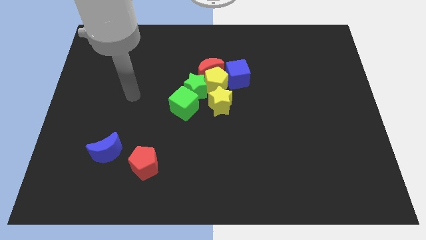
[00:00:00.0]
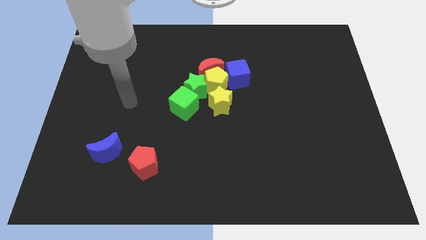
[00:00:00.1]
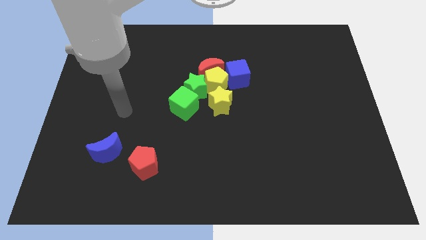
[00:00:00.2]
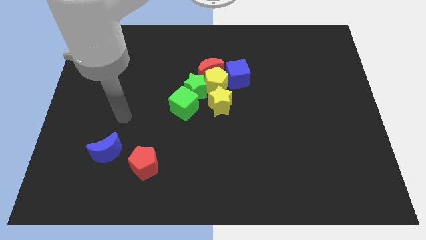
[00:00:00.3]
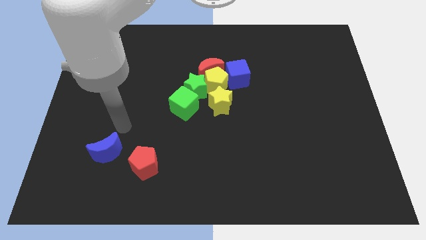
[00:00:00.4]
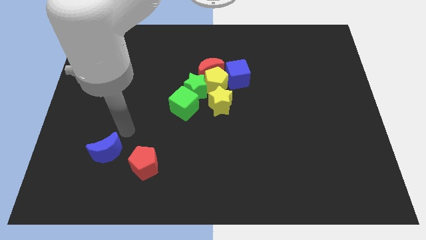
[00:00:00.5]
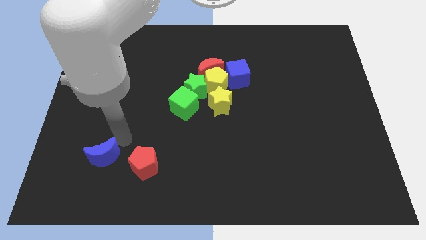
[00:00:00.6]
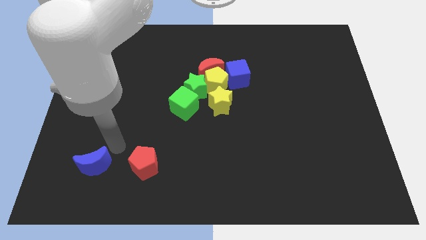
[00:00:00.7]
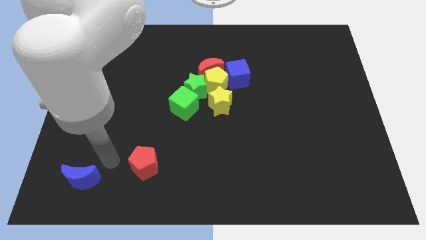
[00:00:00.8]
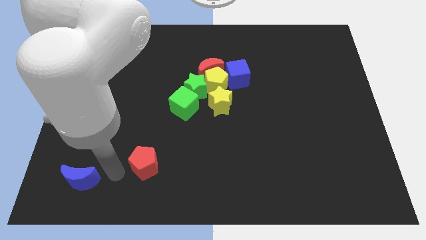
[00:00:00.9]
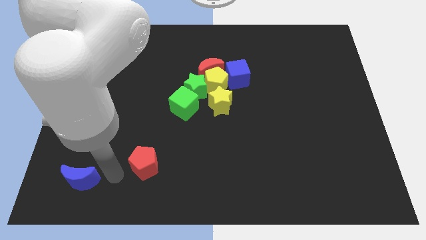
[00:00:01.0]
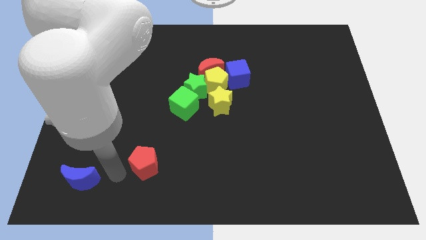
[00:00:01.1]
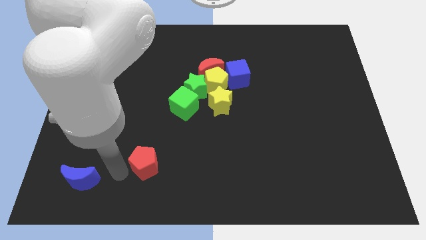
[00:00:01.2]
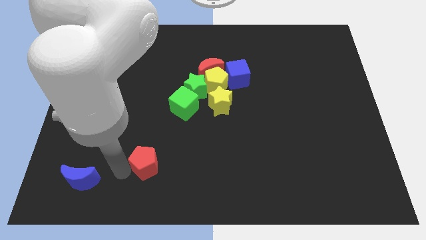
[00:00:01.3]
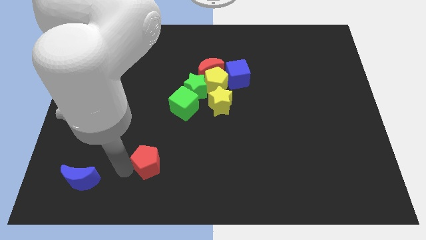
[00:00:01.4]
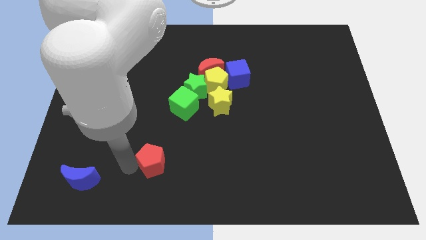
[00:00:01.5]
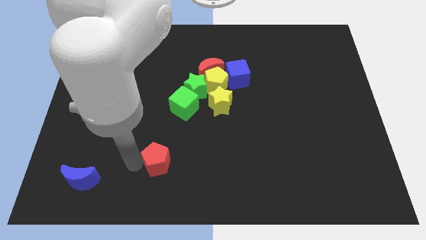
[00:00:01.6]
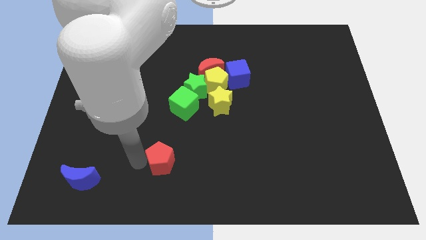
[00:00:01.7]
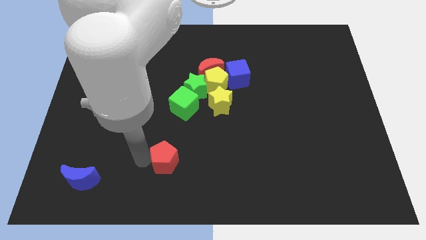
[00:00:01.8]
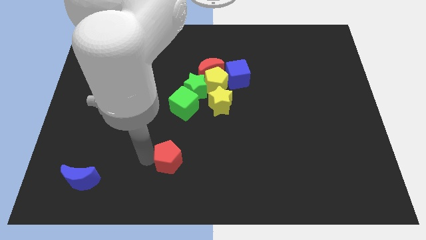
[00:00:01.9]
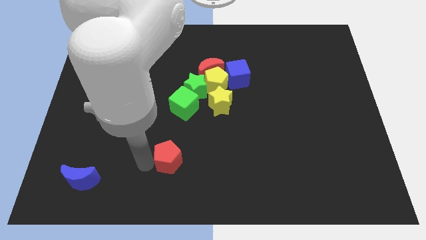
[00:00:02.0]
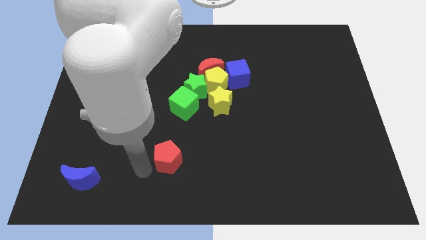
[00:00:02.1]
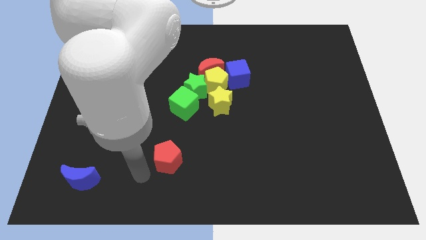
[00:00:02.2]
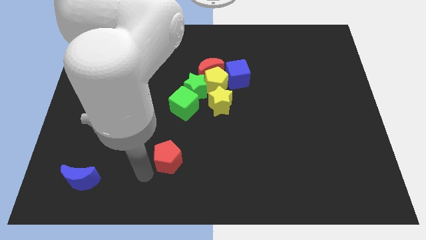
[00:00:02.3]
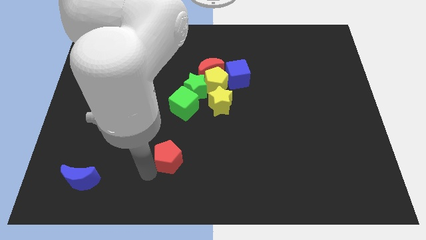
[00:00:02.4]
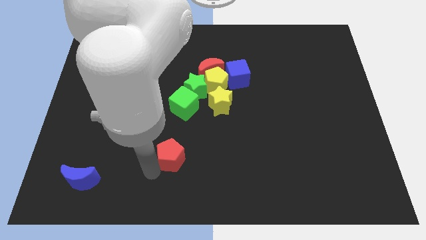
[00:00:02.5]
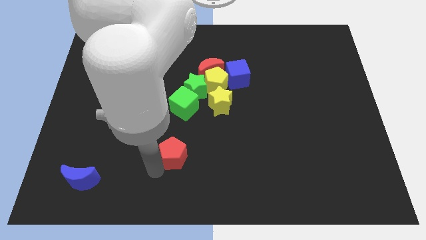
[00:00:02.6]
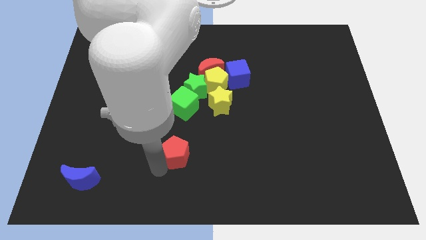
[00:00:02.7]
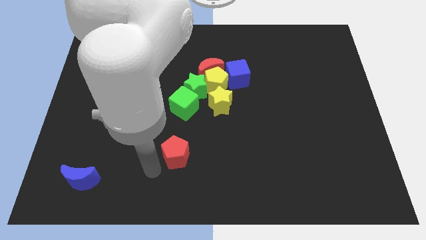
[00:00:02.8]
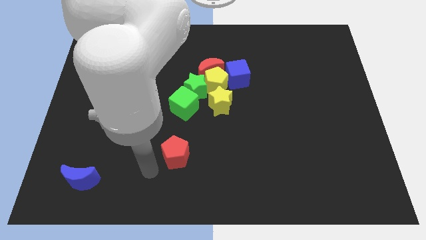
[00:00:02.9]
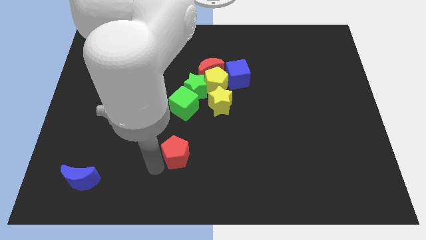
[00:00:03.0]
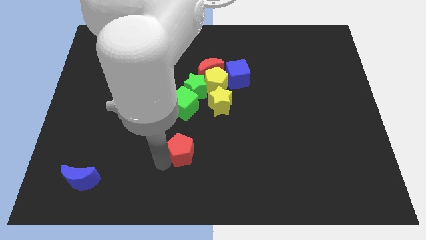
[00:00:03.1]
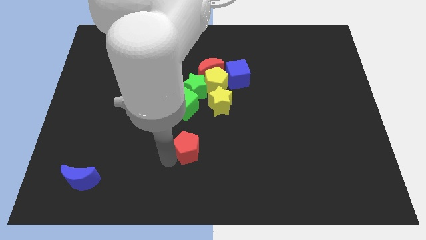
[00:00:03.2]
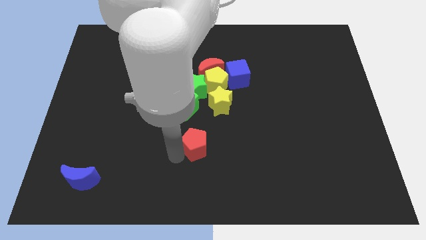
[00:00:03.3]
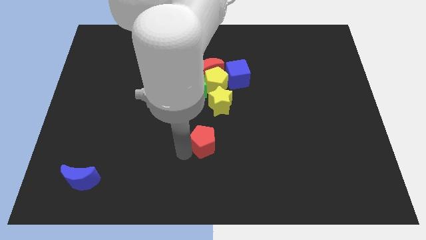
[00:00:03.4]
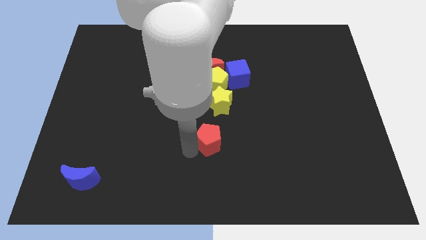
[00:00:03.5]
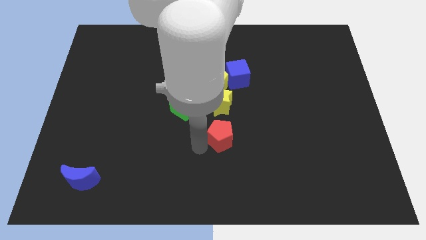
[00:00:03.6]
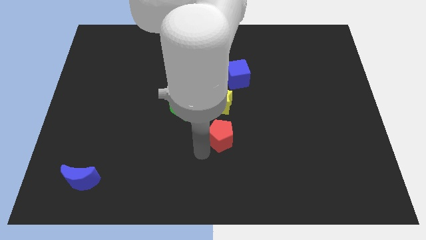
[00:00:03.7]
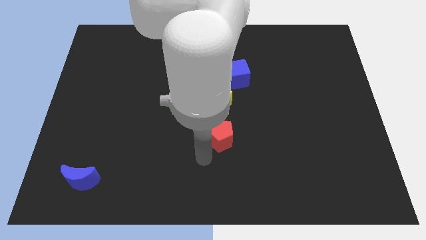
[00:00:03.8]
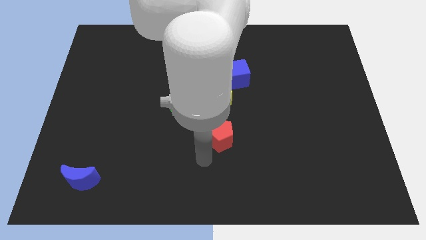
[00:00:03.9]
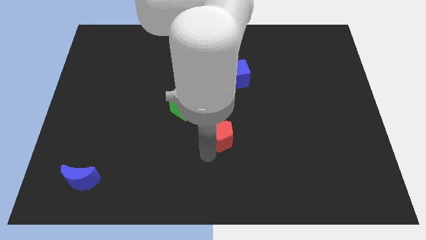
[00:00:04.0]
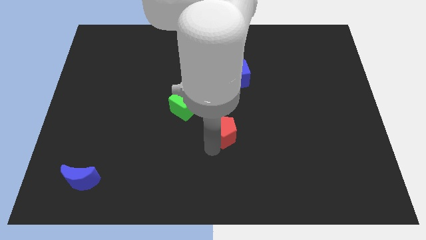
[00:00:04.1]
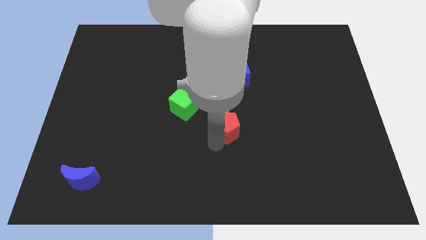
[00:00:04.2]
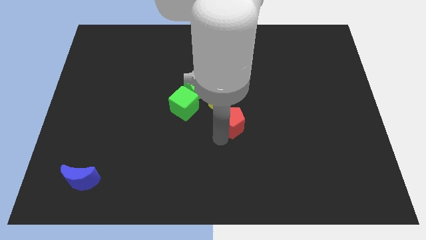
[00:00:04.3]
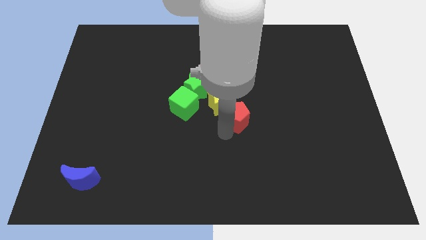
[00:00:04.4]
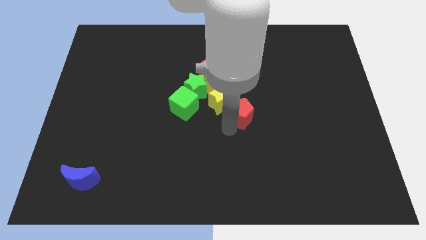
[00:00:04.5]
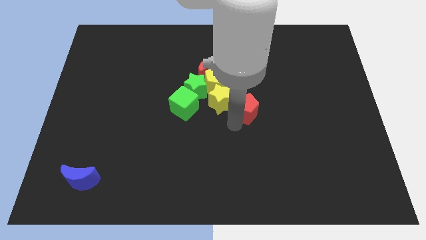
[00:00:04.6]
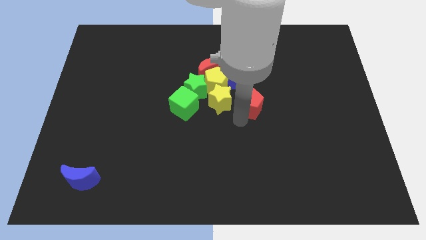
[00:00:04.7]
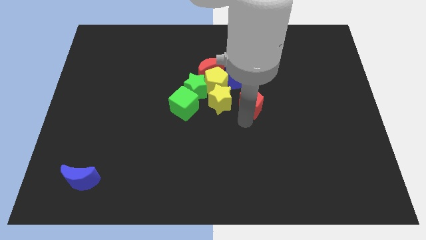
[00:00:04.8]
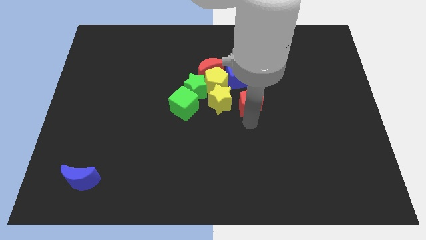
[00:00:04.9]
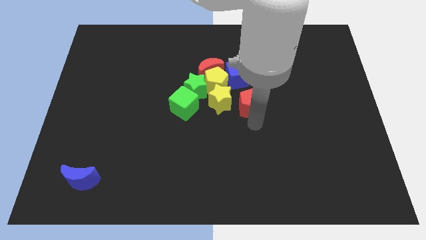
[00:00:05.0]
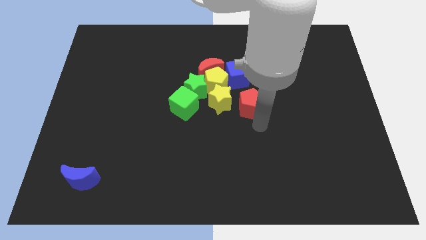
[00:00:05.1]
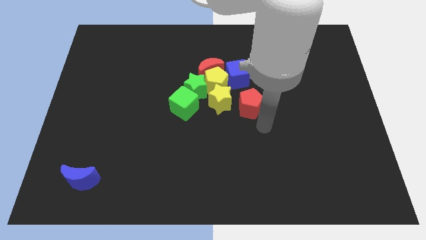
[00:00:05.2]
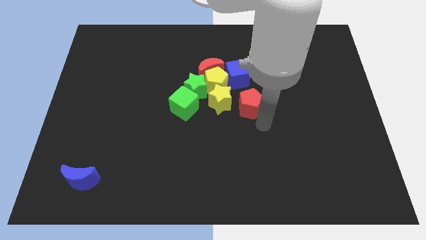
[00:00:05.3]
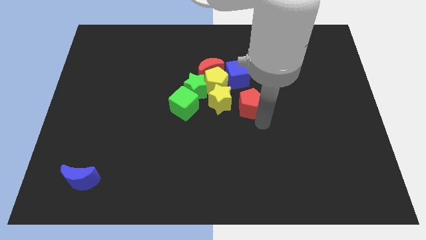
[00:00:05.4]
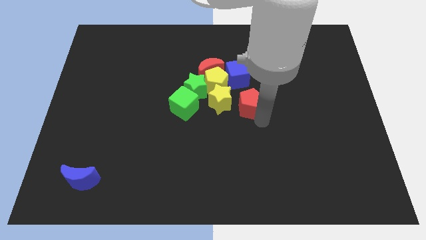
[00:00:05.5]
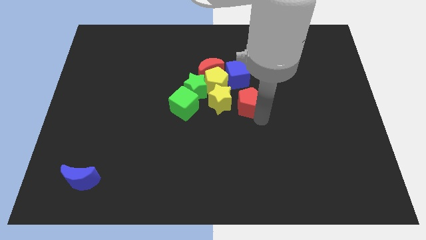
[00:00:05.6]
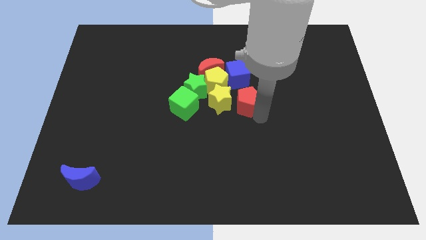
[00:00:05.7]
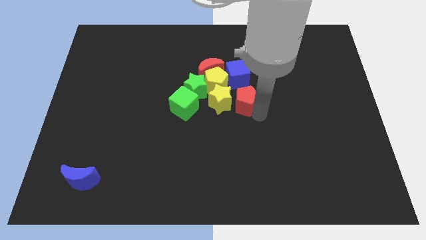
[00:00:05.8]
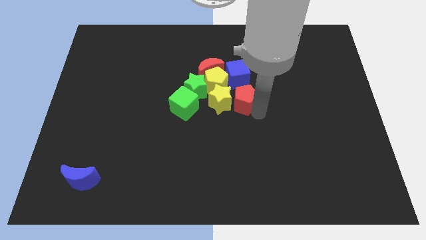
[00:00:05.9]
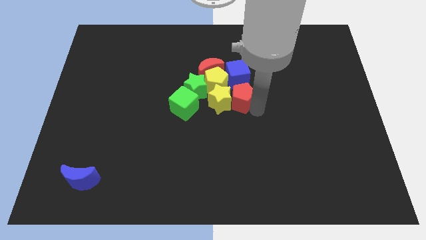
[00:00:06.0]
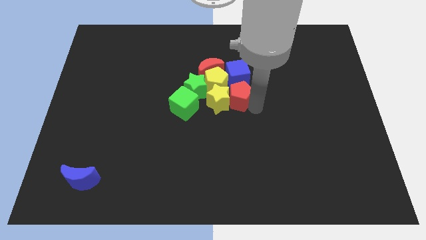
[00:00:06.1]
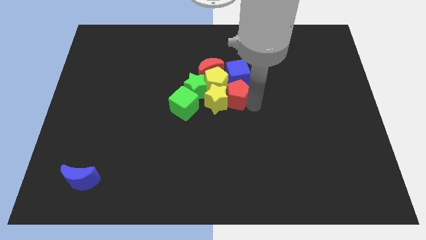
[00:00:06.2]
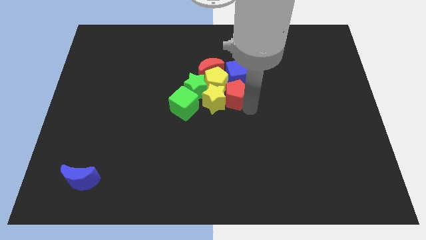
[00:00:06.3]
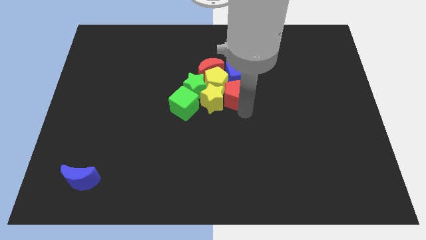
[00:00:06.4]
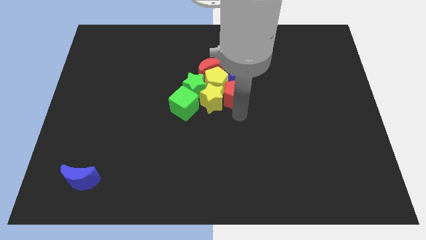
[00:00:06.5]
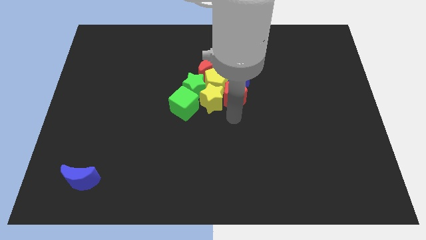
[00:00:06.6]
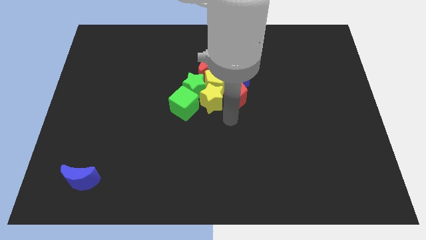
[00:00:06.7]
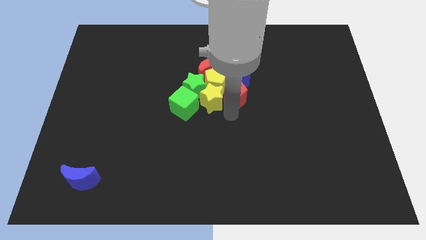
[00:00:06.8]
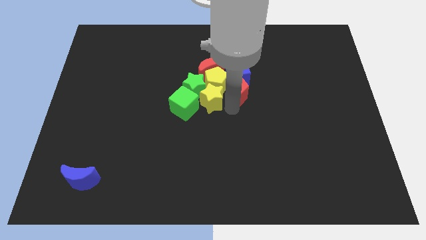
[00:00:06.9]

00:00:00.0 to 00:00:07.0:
push the red pentagon towards the blue cube

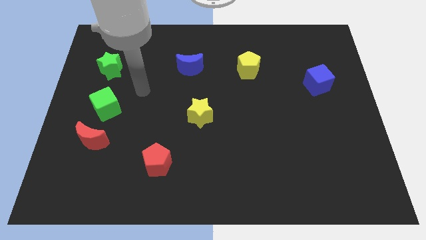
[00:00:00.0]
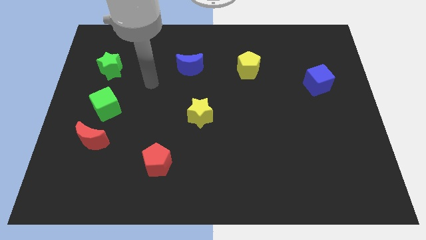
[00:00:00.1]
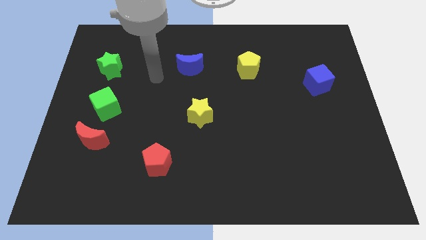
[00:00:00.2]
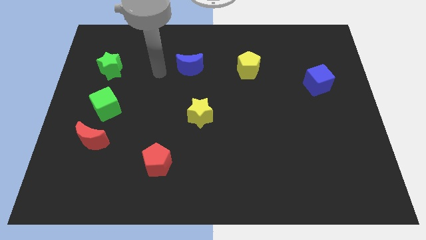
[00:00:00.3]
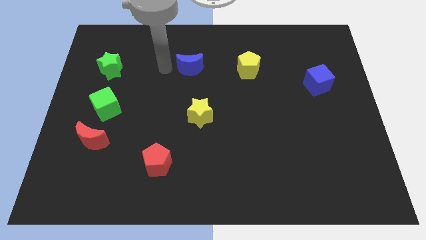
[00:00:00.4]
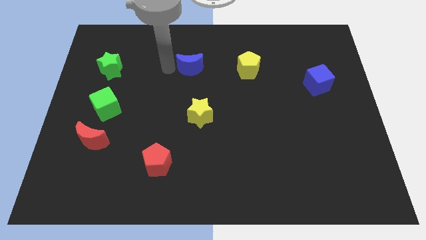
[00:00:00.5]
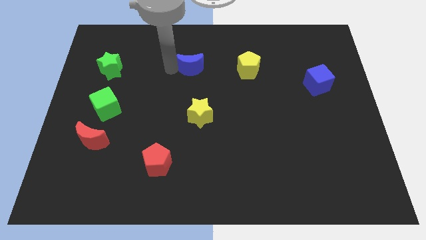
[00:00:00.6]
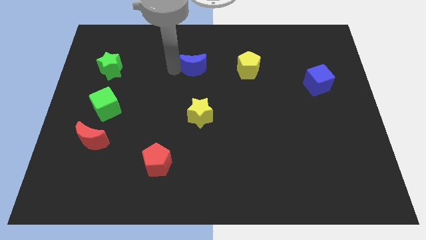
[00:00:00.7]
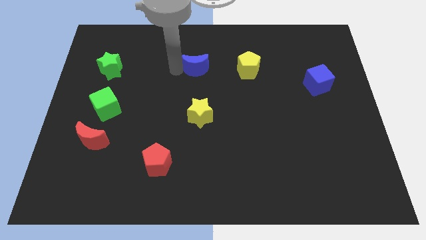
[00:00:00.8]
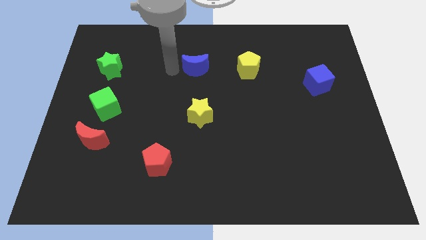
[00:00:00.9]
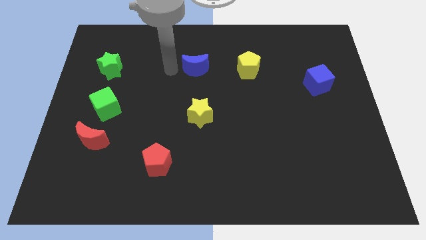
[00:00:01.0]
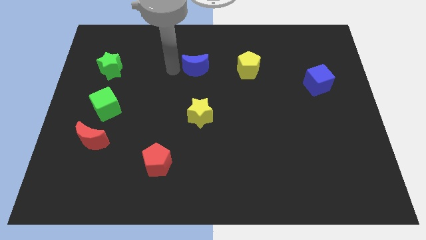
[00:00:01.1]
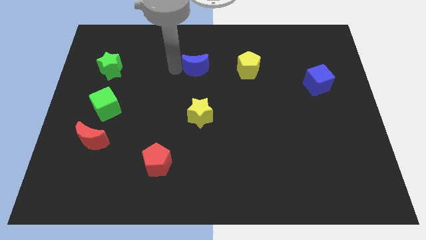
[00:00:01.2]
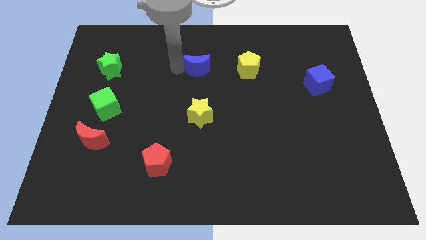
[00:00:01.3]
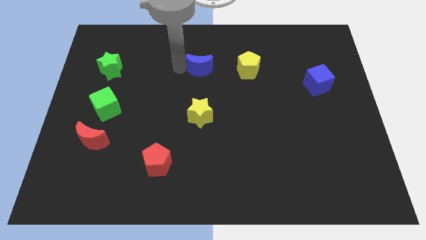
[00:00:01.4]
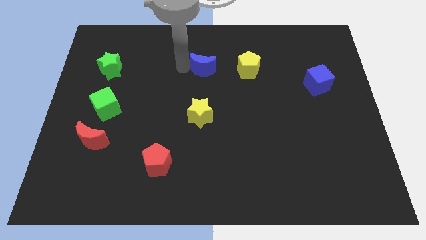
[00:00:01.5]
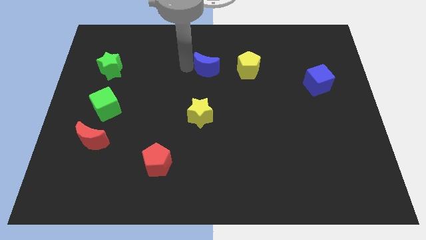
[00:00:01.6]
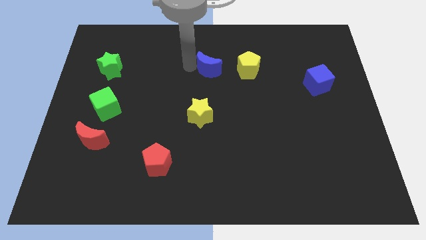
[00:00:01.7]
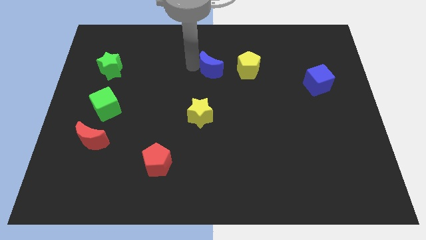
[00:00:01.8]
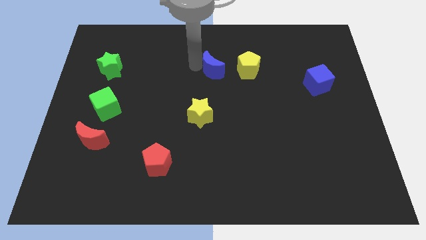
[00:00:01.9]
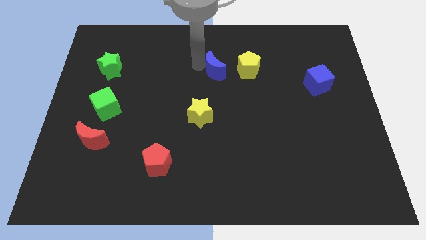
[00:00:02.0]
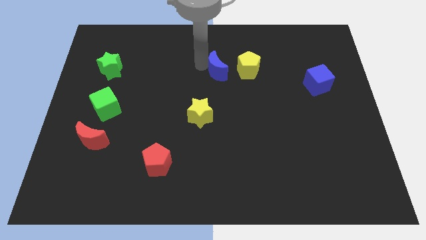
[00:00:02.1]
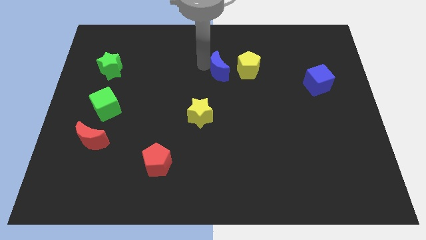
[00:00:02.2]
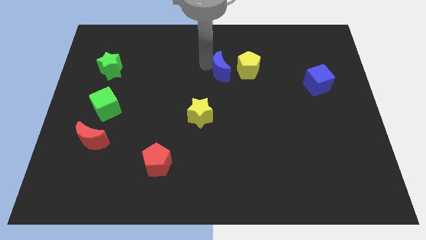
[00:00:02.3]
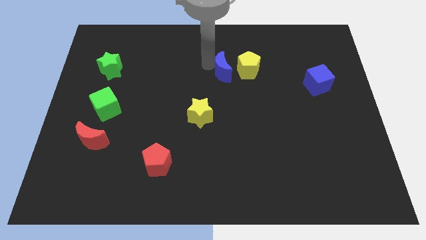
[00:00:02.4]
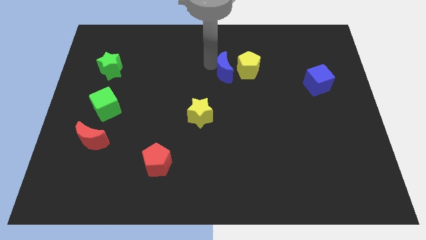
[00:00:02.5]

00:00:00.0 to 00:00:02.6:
slide the blue moon close to the yellow pentagon
